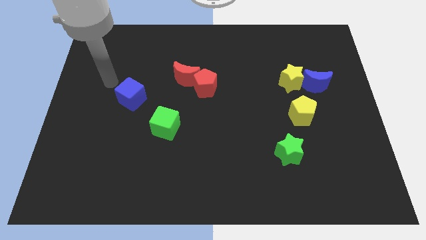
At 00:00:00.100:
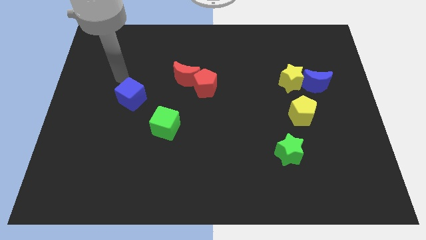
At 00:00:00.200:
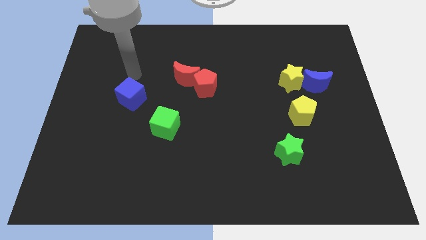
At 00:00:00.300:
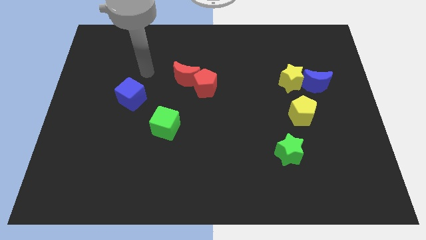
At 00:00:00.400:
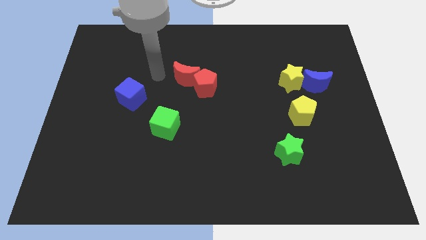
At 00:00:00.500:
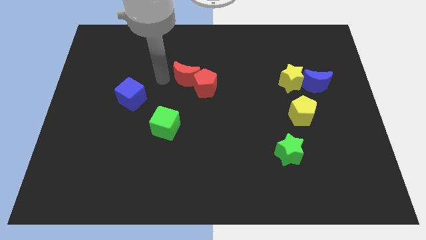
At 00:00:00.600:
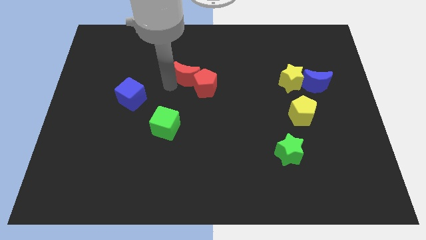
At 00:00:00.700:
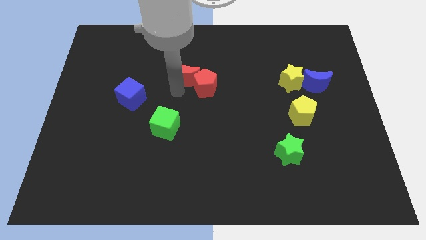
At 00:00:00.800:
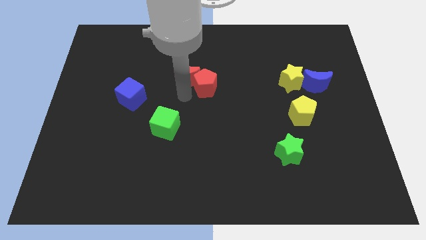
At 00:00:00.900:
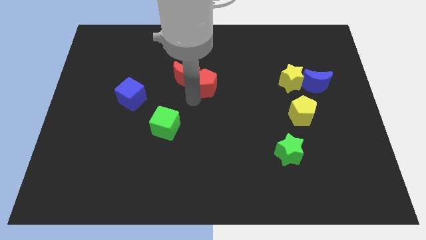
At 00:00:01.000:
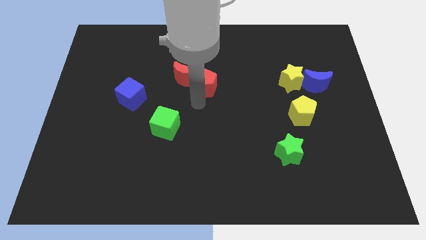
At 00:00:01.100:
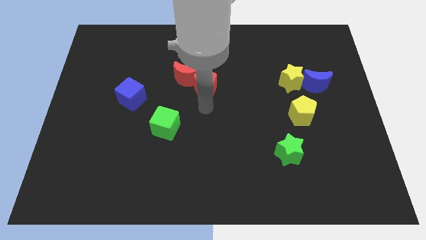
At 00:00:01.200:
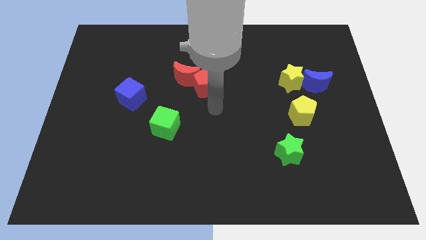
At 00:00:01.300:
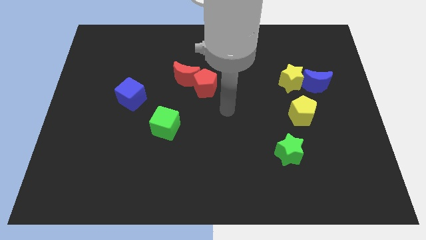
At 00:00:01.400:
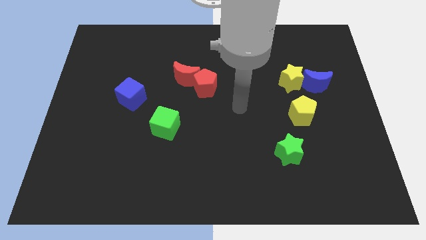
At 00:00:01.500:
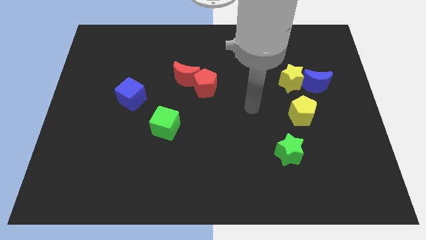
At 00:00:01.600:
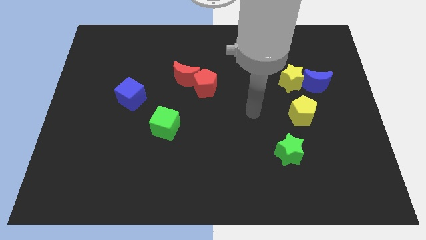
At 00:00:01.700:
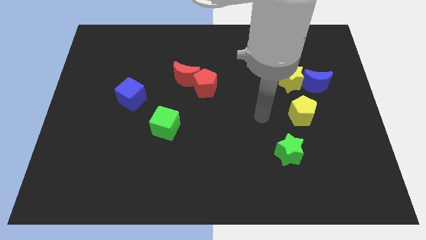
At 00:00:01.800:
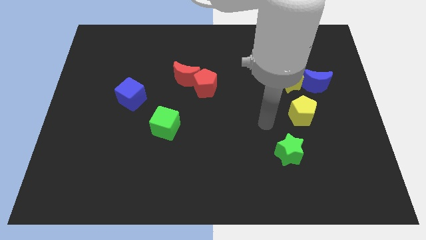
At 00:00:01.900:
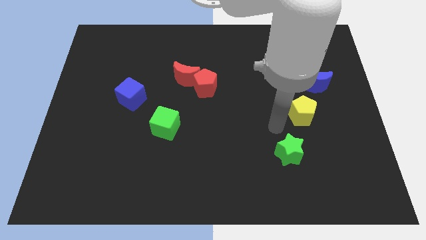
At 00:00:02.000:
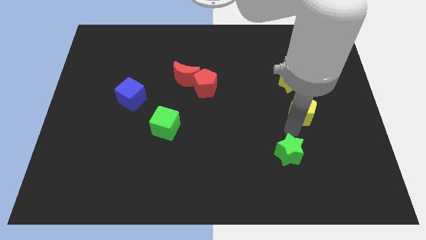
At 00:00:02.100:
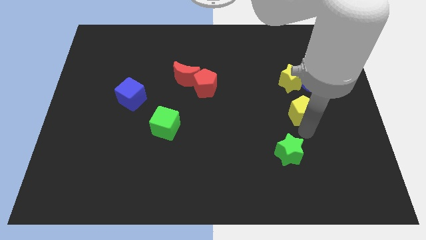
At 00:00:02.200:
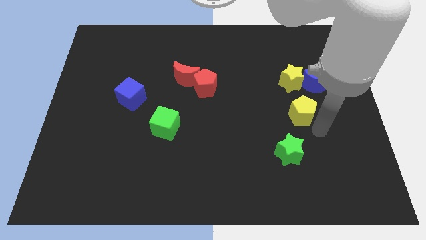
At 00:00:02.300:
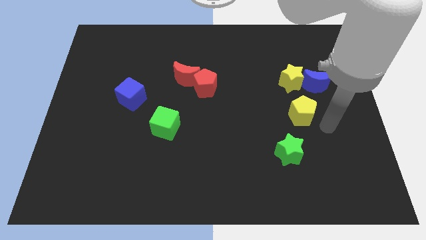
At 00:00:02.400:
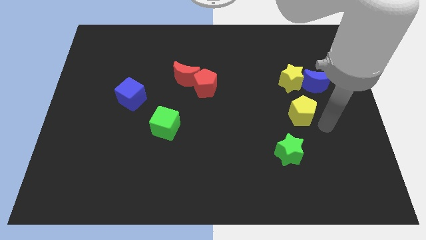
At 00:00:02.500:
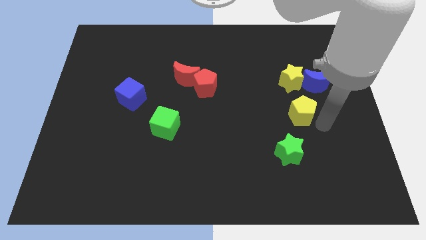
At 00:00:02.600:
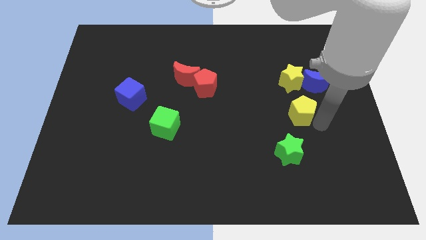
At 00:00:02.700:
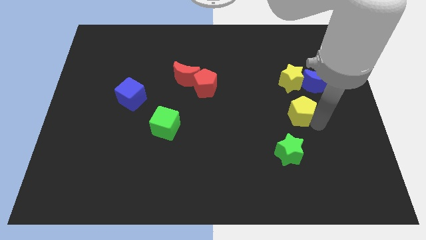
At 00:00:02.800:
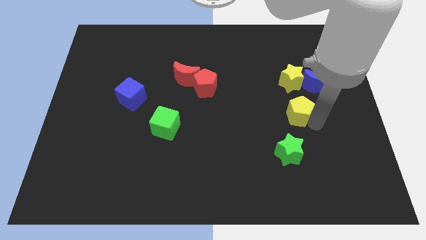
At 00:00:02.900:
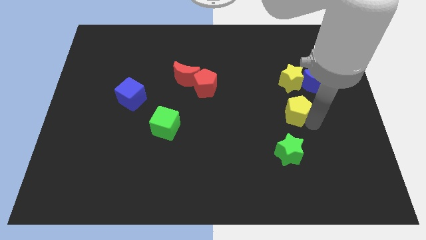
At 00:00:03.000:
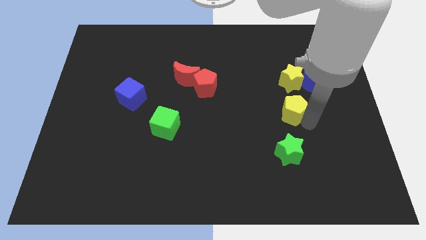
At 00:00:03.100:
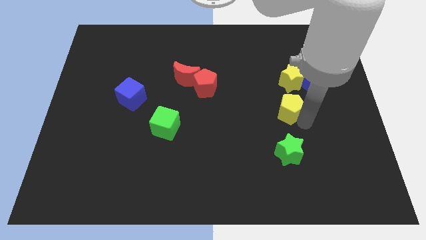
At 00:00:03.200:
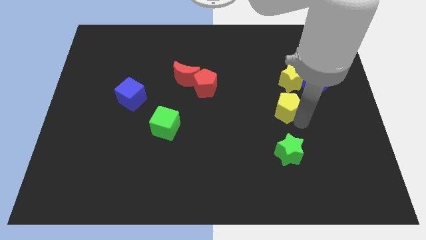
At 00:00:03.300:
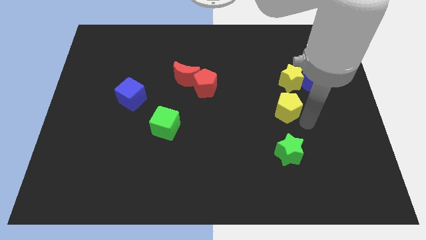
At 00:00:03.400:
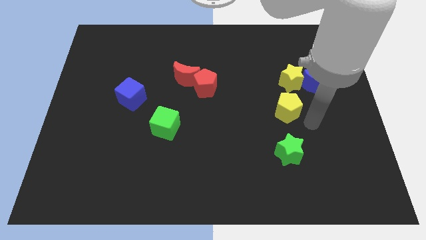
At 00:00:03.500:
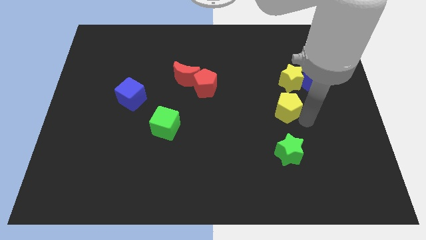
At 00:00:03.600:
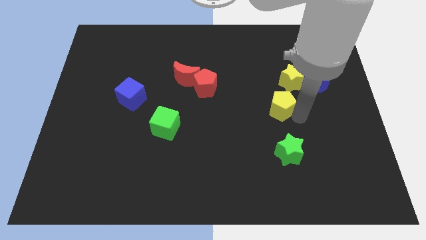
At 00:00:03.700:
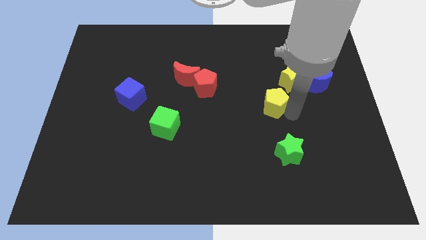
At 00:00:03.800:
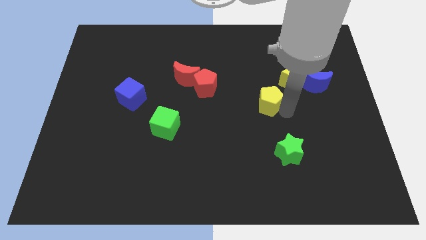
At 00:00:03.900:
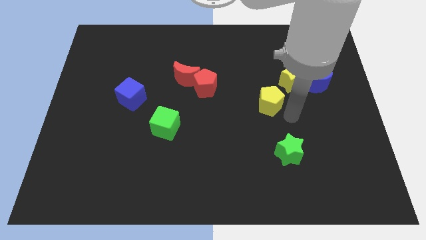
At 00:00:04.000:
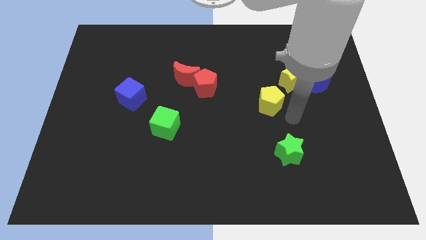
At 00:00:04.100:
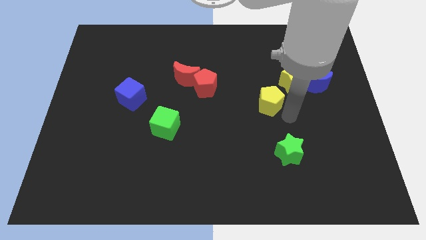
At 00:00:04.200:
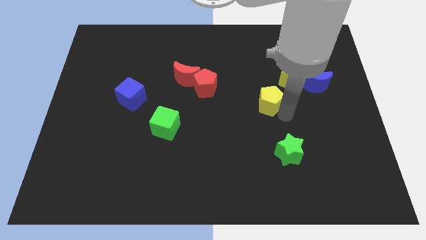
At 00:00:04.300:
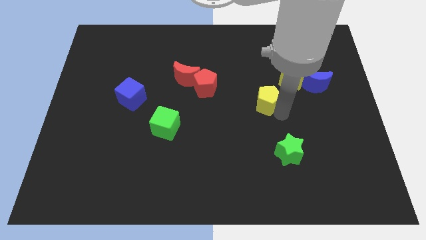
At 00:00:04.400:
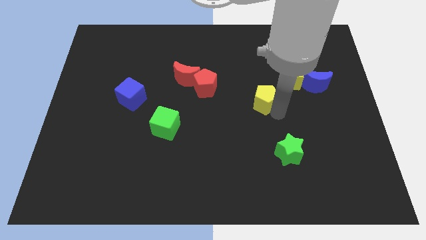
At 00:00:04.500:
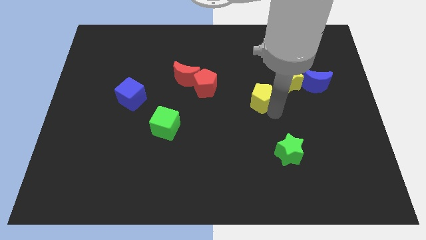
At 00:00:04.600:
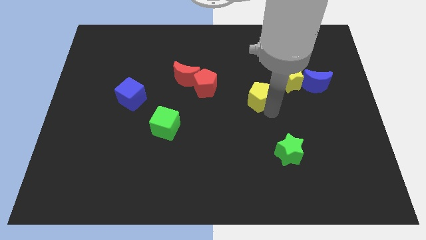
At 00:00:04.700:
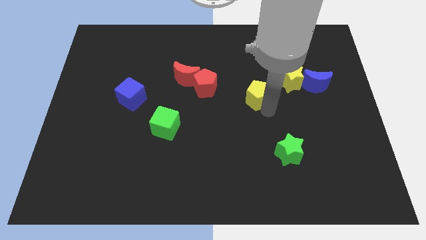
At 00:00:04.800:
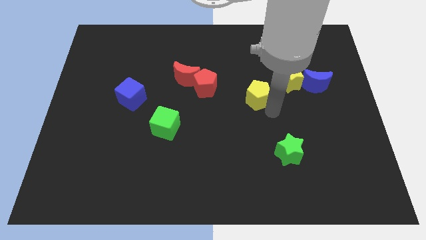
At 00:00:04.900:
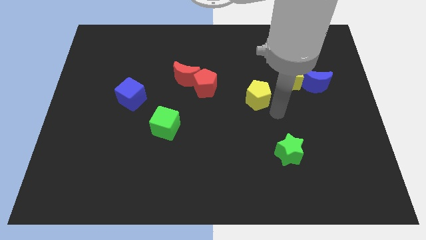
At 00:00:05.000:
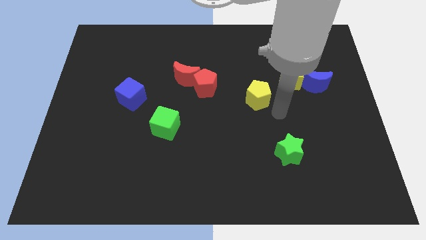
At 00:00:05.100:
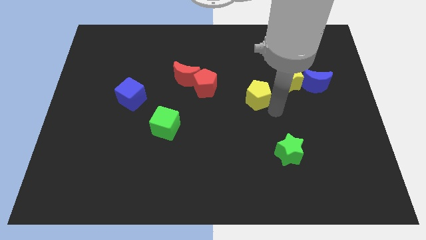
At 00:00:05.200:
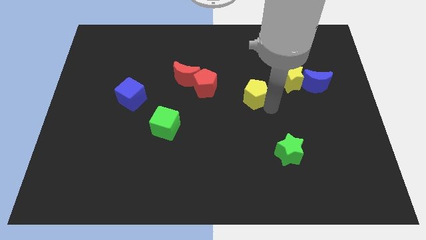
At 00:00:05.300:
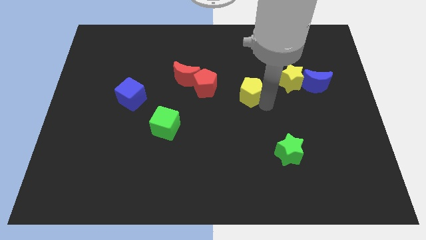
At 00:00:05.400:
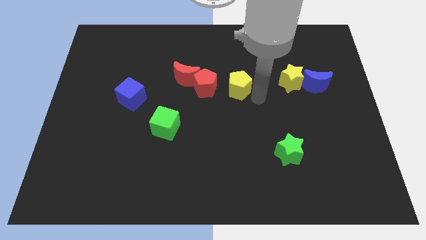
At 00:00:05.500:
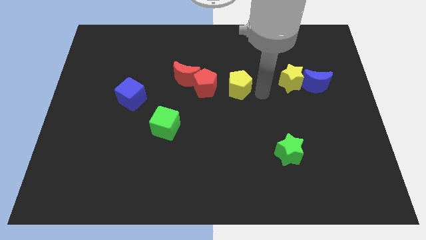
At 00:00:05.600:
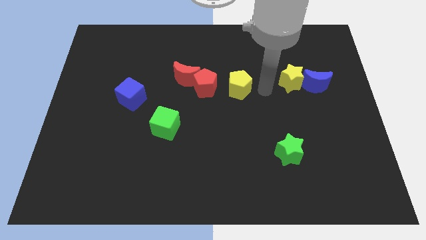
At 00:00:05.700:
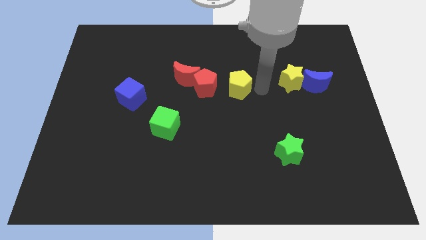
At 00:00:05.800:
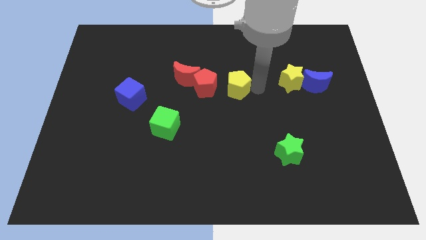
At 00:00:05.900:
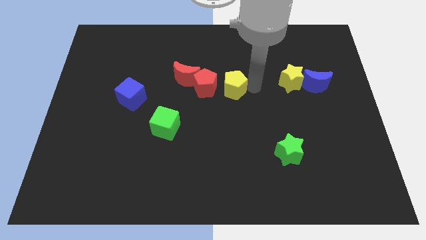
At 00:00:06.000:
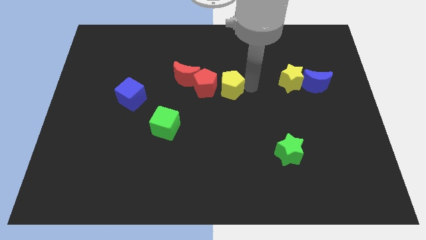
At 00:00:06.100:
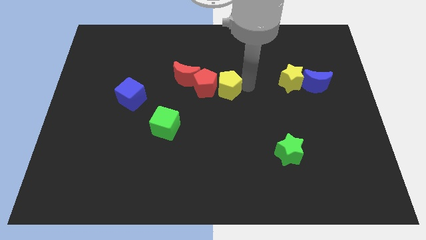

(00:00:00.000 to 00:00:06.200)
slide the yellow pentagon to the red pentagon

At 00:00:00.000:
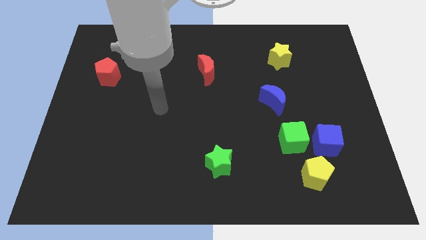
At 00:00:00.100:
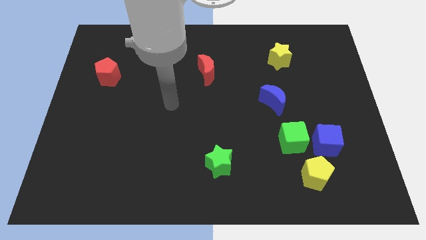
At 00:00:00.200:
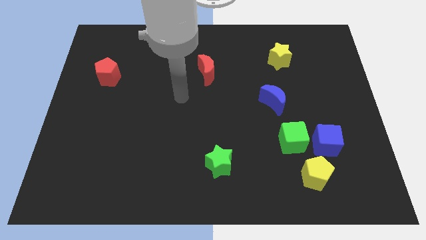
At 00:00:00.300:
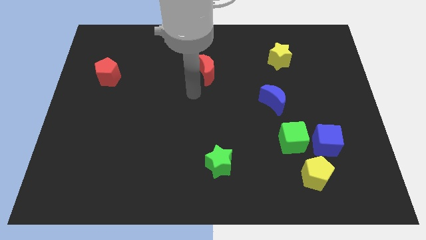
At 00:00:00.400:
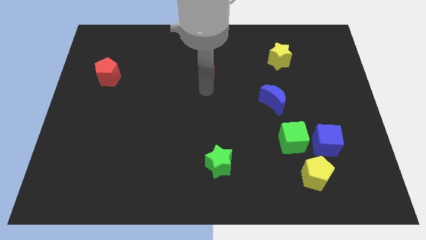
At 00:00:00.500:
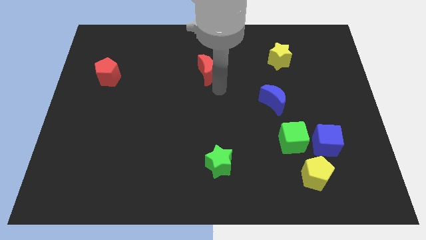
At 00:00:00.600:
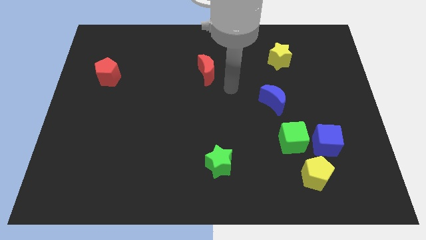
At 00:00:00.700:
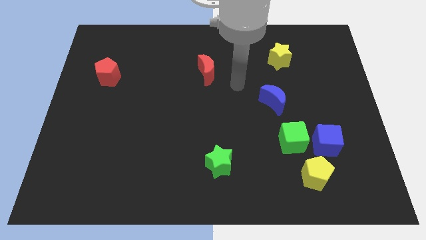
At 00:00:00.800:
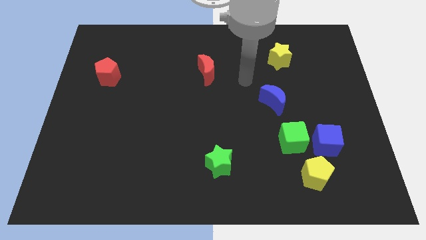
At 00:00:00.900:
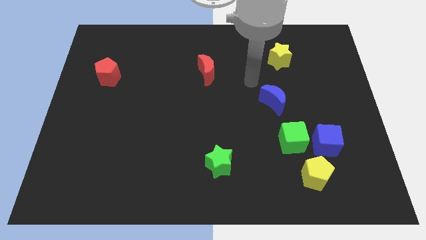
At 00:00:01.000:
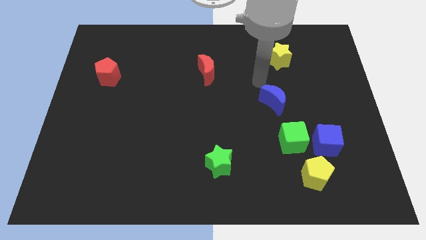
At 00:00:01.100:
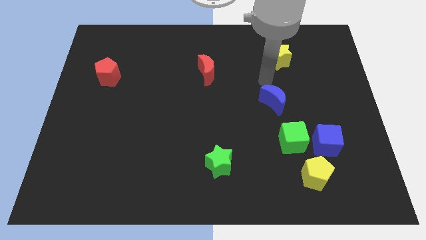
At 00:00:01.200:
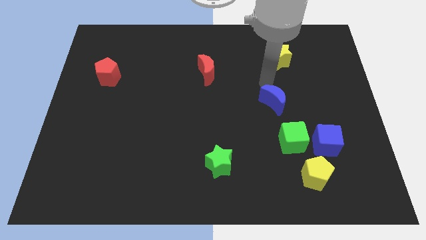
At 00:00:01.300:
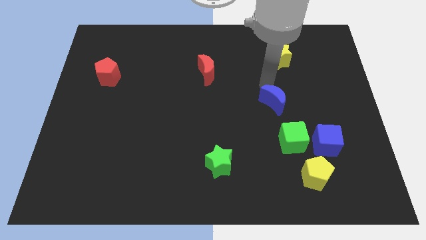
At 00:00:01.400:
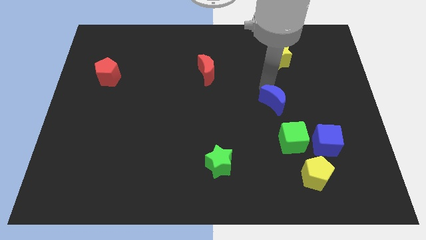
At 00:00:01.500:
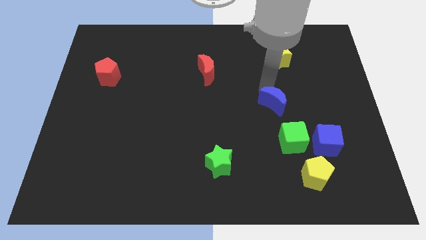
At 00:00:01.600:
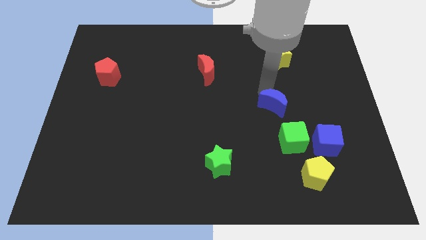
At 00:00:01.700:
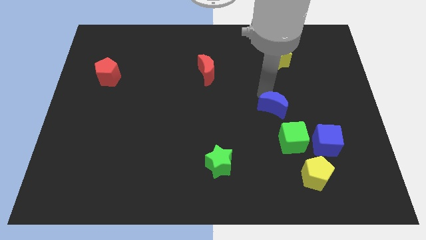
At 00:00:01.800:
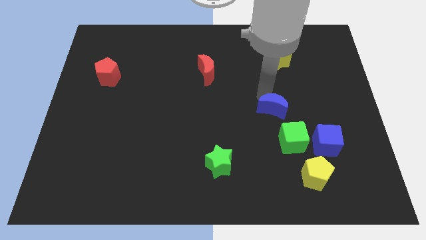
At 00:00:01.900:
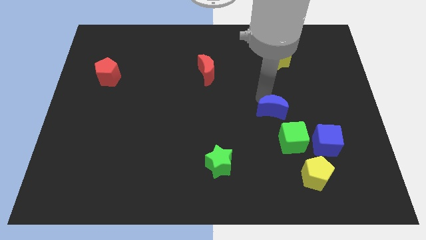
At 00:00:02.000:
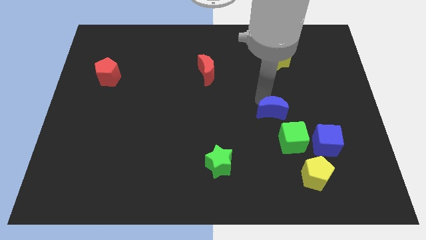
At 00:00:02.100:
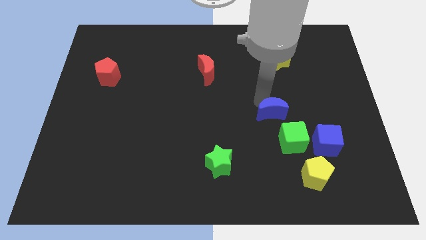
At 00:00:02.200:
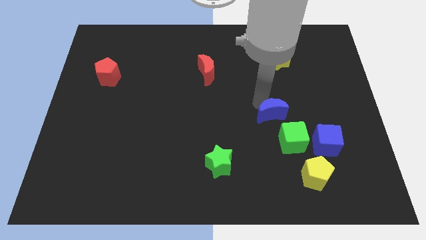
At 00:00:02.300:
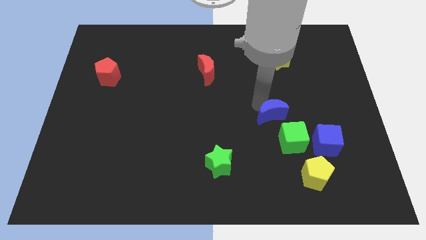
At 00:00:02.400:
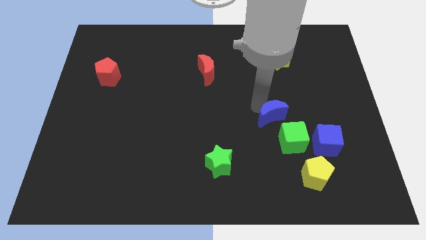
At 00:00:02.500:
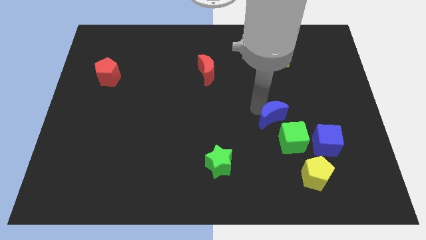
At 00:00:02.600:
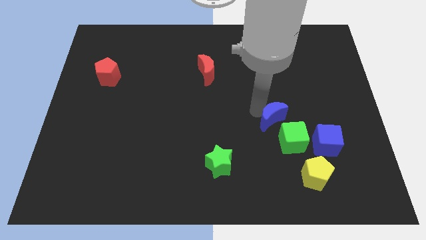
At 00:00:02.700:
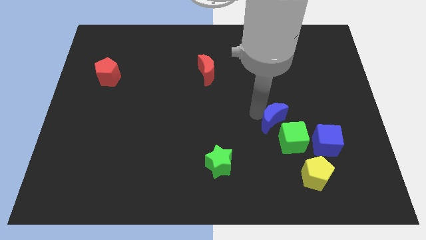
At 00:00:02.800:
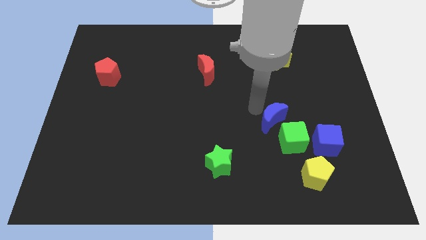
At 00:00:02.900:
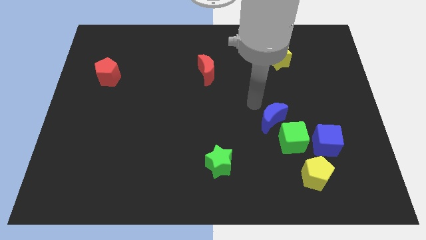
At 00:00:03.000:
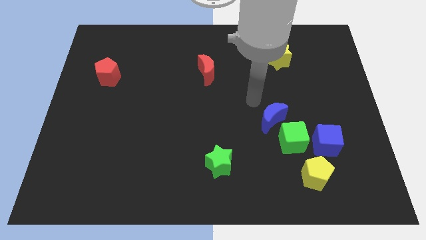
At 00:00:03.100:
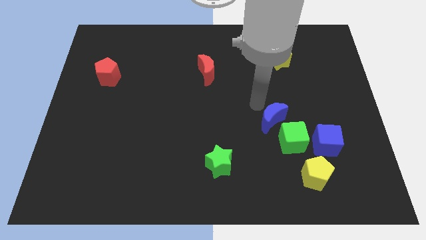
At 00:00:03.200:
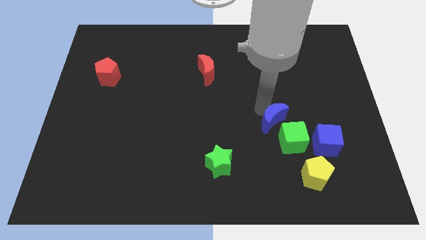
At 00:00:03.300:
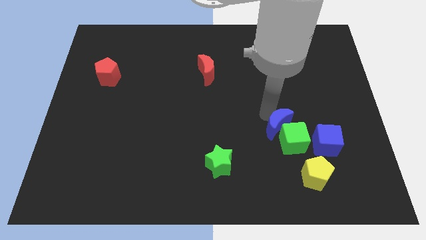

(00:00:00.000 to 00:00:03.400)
put the blue moon next to the green cube
